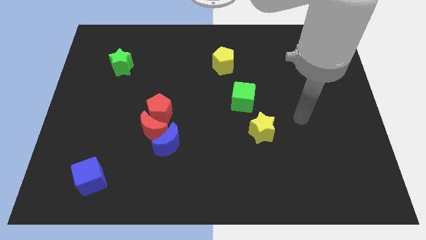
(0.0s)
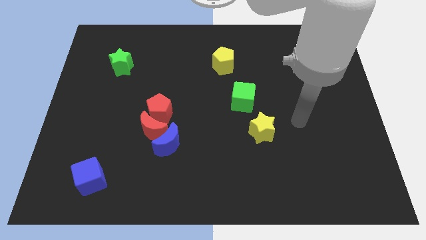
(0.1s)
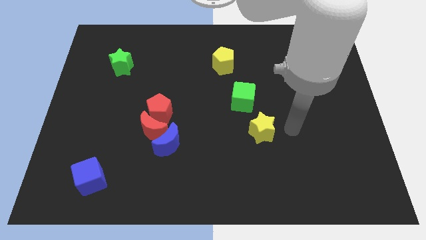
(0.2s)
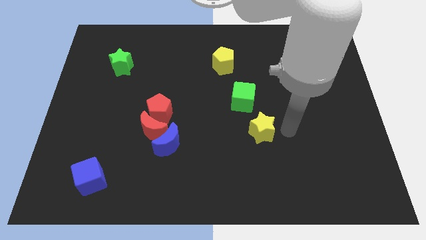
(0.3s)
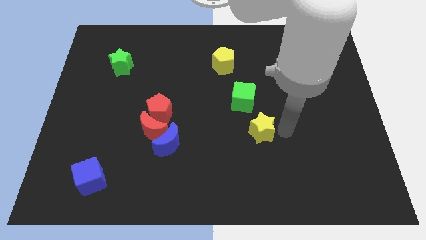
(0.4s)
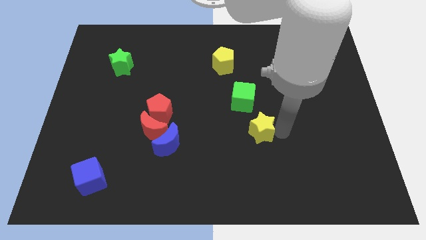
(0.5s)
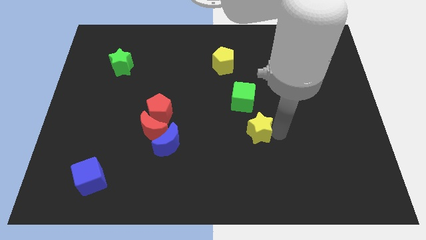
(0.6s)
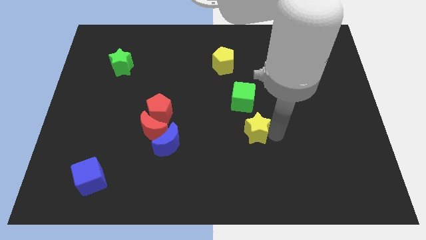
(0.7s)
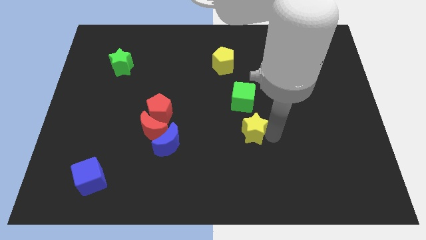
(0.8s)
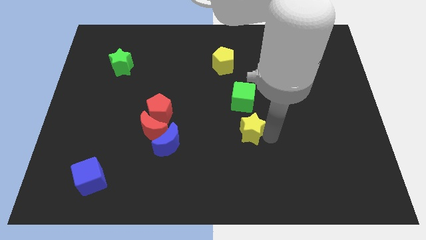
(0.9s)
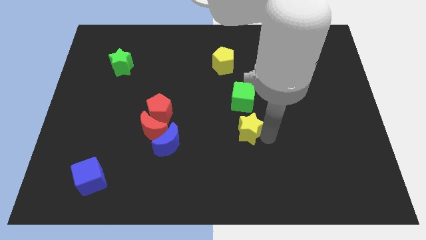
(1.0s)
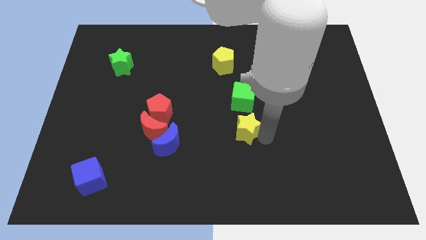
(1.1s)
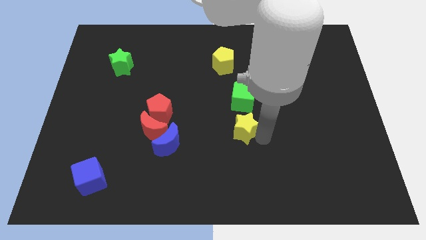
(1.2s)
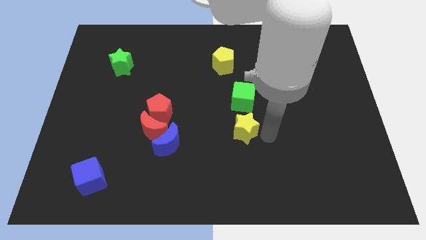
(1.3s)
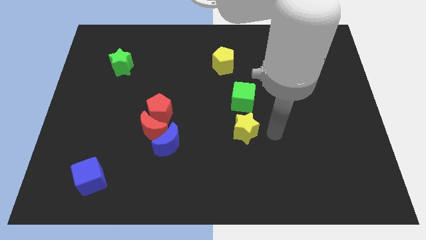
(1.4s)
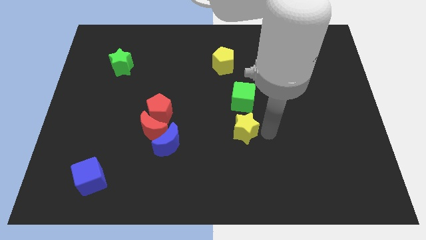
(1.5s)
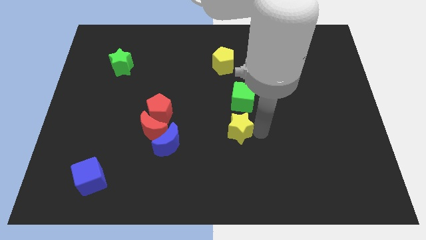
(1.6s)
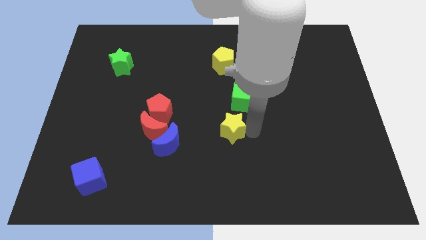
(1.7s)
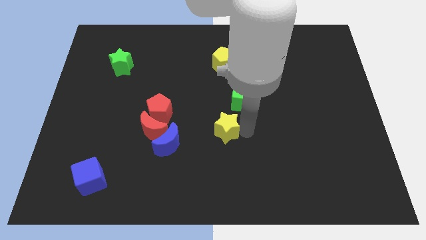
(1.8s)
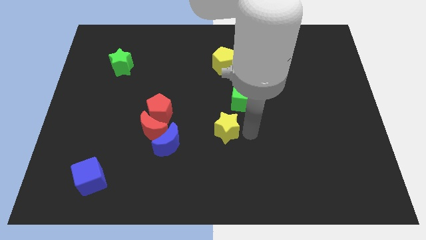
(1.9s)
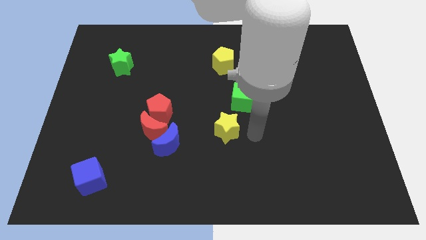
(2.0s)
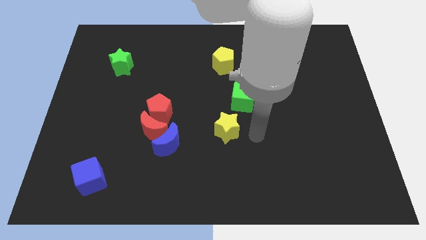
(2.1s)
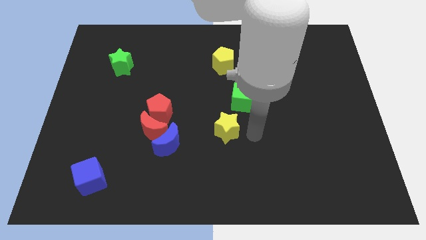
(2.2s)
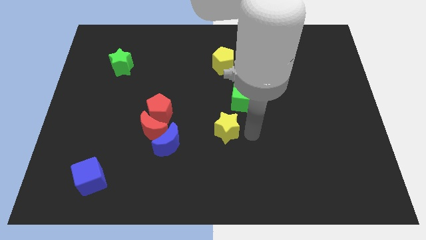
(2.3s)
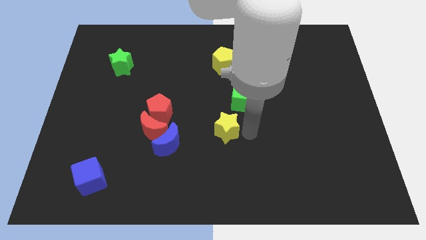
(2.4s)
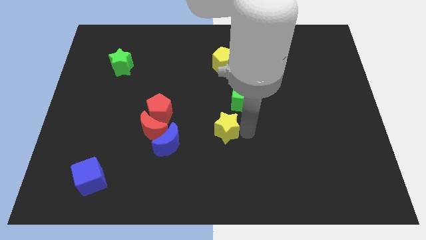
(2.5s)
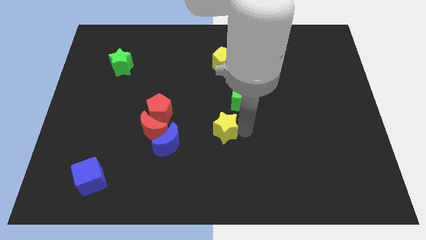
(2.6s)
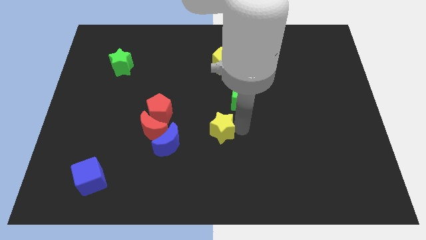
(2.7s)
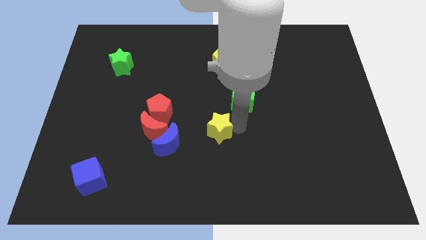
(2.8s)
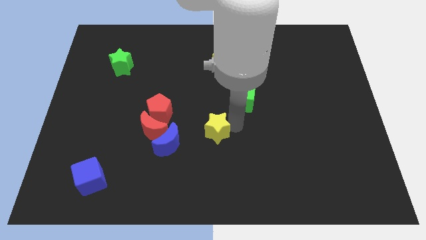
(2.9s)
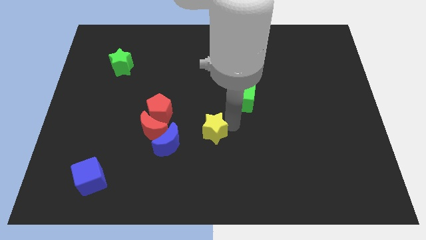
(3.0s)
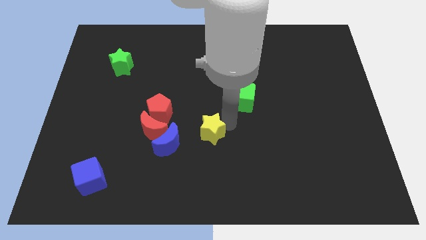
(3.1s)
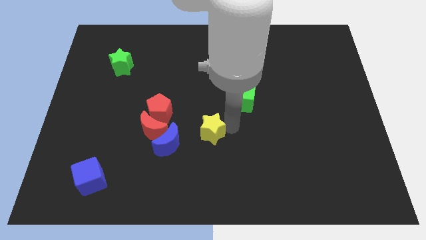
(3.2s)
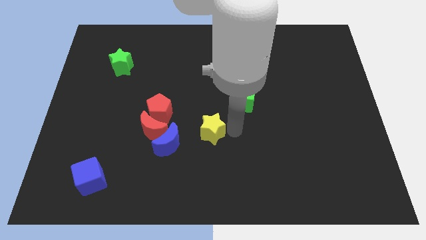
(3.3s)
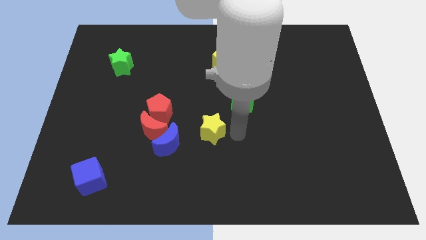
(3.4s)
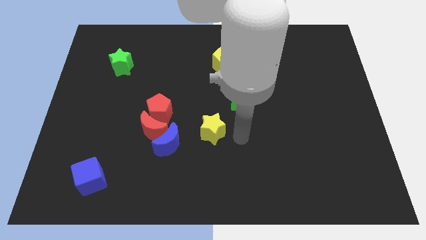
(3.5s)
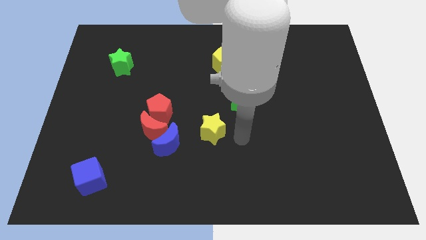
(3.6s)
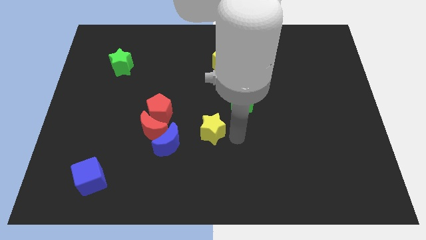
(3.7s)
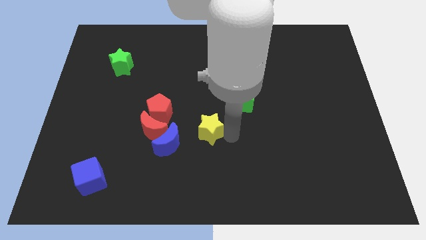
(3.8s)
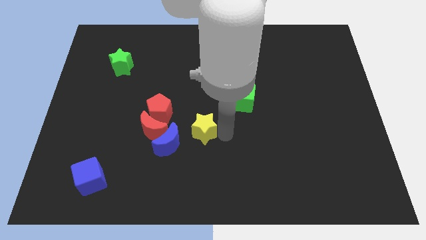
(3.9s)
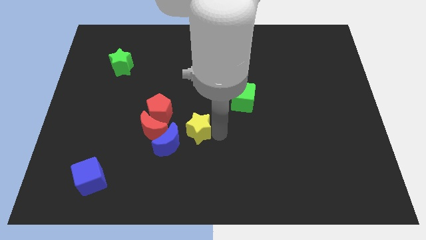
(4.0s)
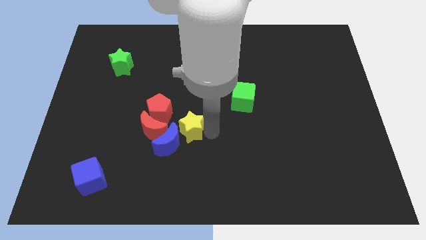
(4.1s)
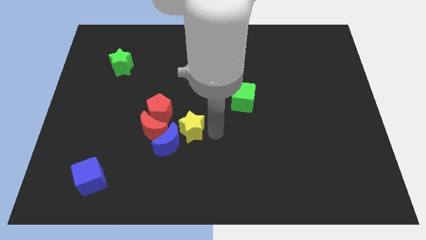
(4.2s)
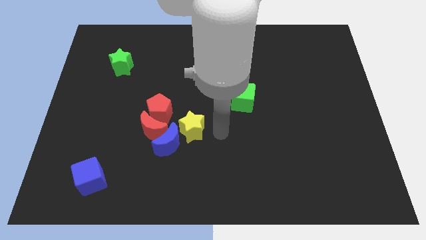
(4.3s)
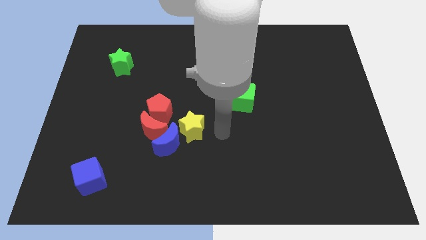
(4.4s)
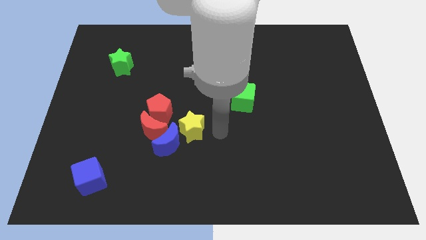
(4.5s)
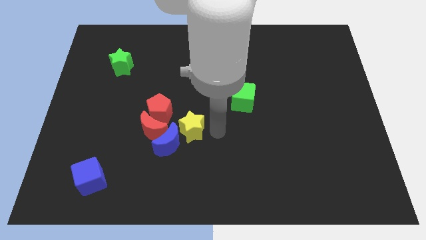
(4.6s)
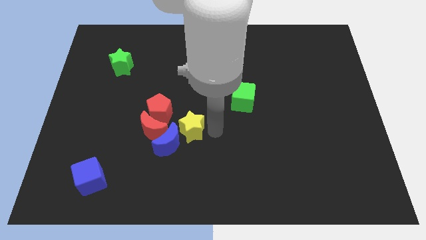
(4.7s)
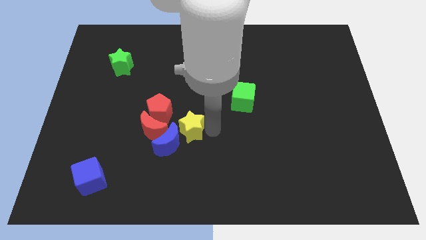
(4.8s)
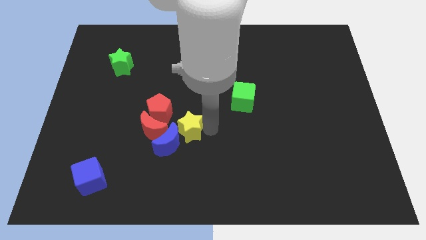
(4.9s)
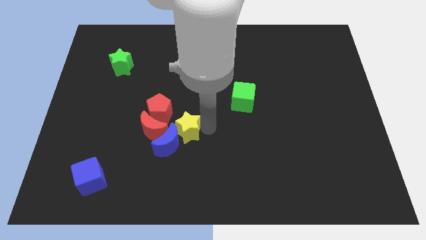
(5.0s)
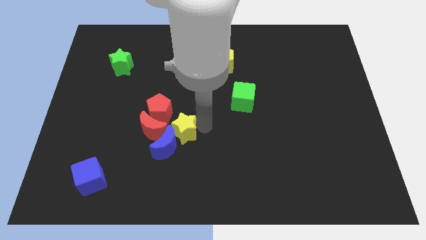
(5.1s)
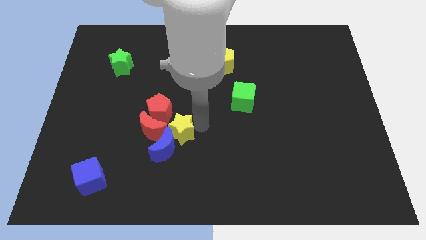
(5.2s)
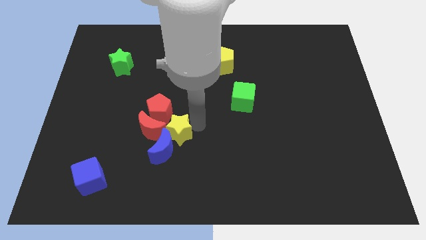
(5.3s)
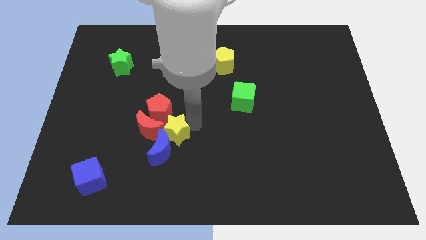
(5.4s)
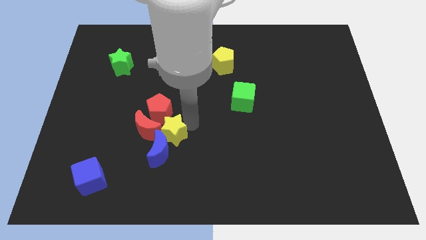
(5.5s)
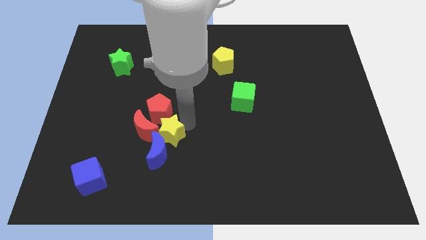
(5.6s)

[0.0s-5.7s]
push the yellow star next to the red moon

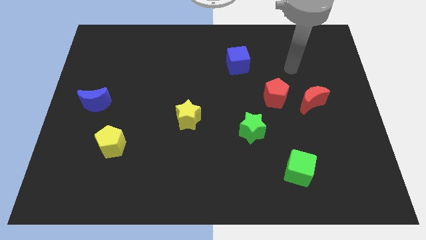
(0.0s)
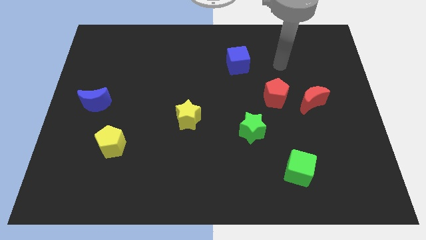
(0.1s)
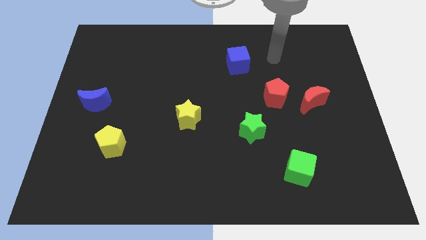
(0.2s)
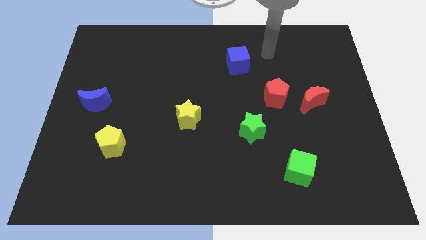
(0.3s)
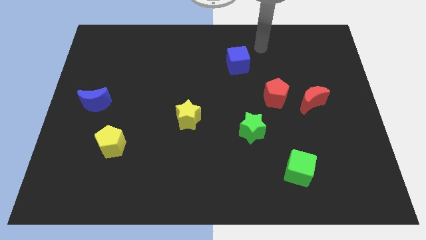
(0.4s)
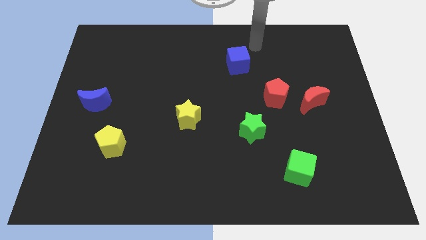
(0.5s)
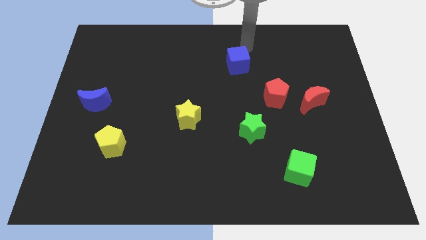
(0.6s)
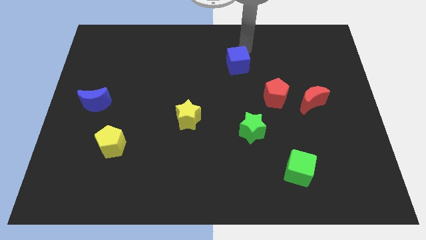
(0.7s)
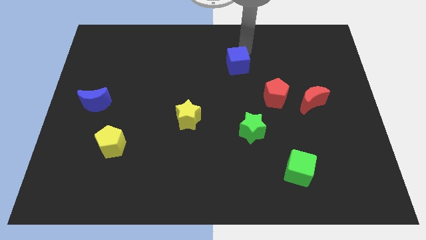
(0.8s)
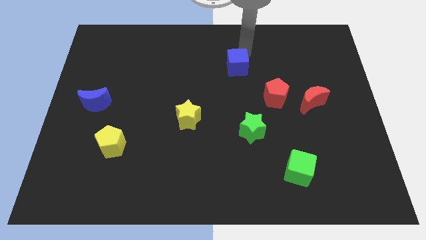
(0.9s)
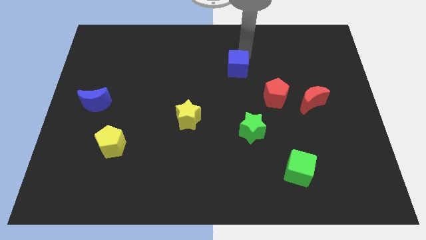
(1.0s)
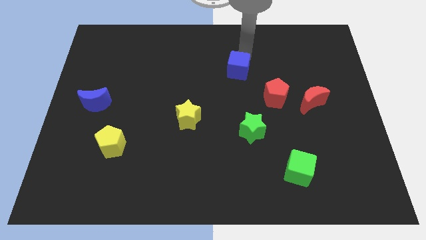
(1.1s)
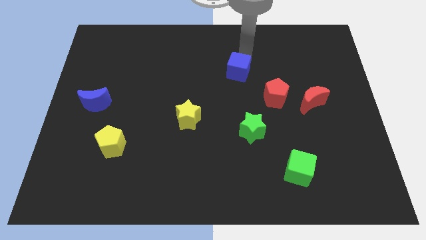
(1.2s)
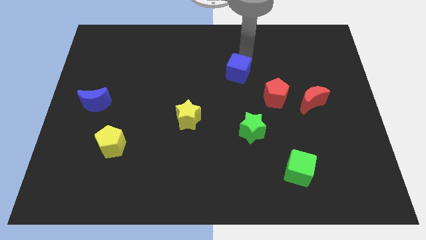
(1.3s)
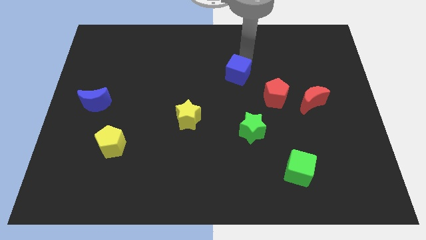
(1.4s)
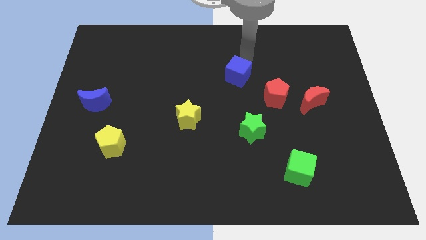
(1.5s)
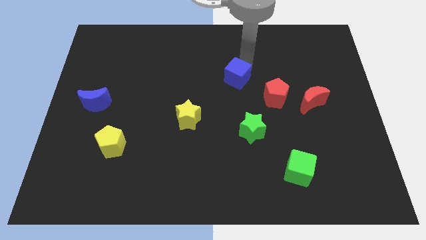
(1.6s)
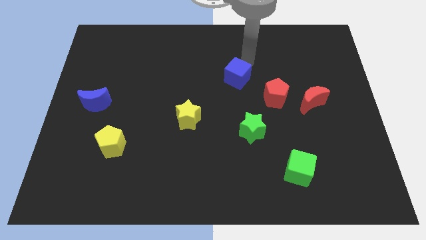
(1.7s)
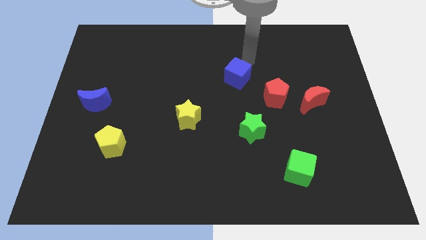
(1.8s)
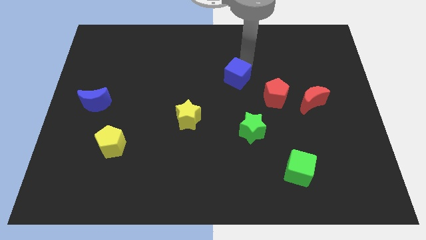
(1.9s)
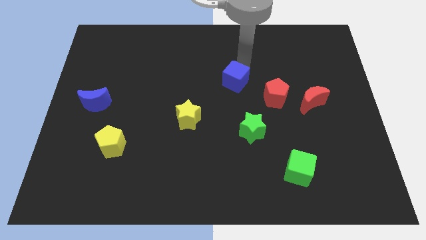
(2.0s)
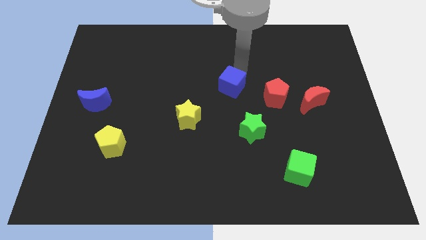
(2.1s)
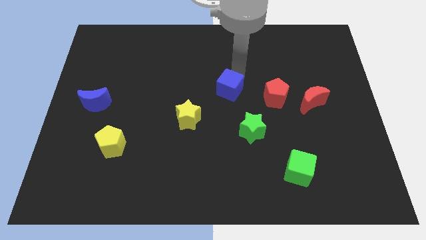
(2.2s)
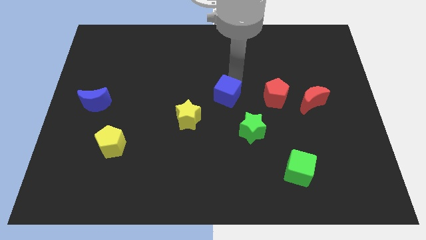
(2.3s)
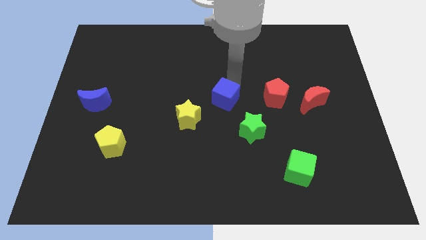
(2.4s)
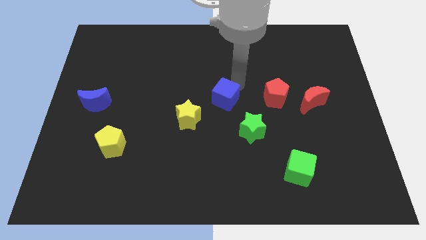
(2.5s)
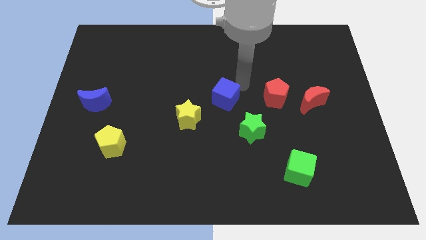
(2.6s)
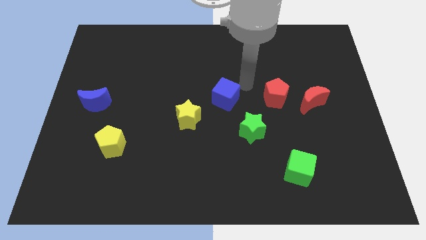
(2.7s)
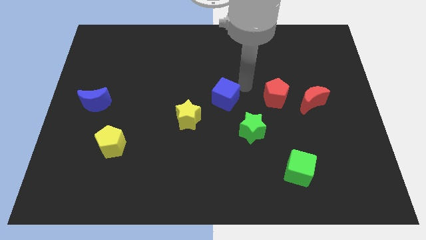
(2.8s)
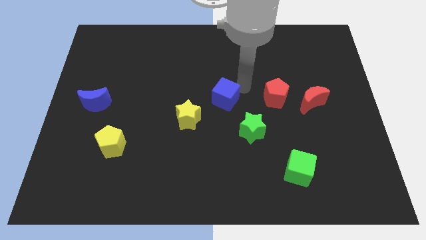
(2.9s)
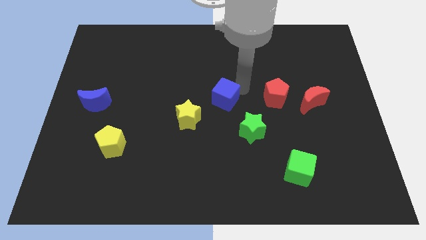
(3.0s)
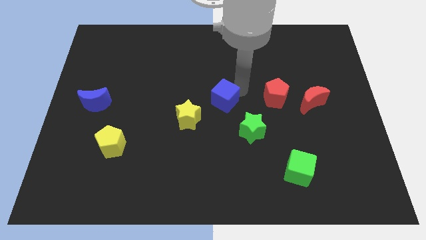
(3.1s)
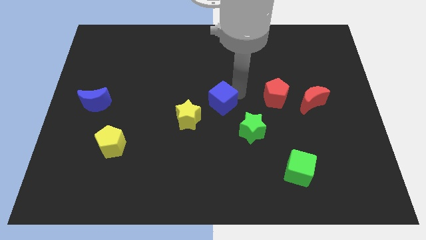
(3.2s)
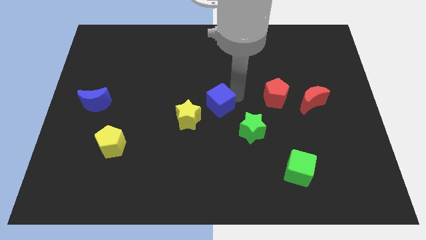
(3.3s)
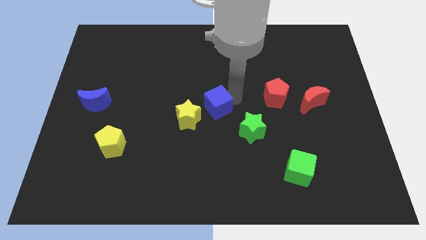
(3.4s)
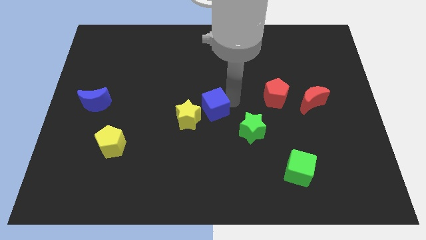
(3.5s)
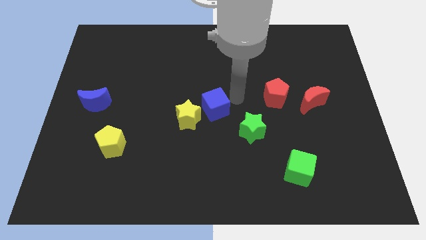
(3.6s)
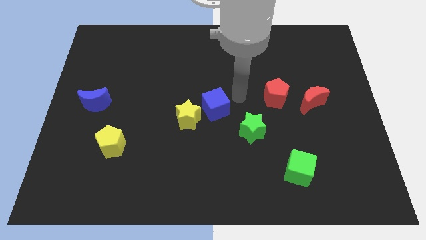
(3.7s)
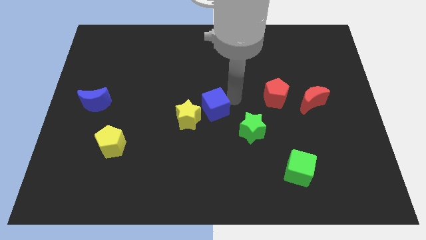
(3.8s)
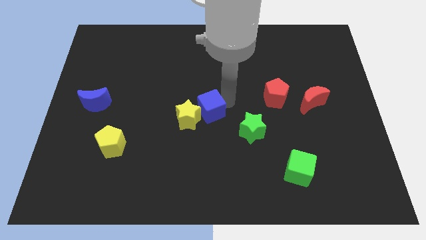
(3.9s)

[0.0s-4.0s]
slide the blue cube next to the yellow star
